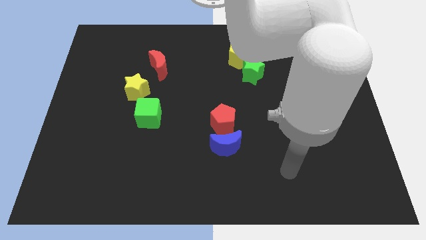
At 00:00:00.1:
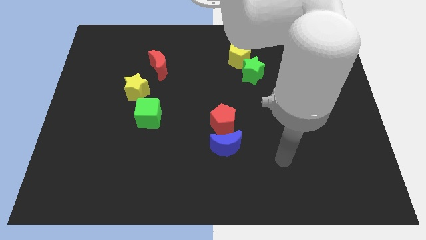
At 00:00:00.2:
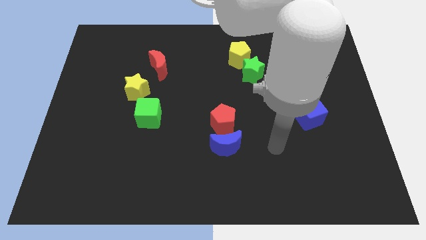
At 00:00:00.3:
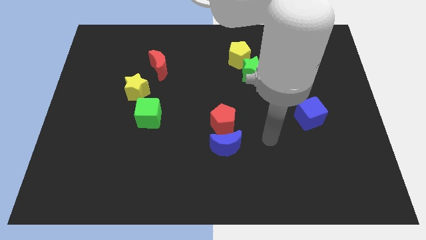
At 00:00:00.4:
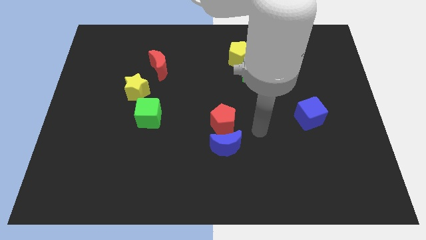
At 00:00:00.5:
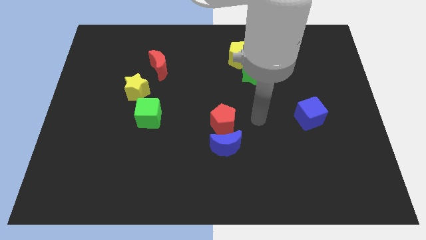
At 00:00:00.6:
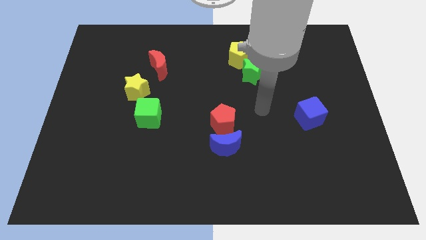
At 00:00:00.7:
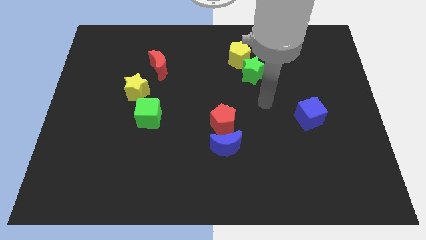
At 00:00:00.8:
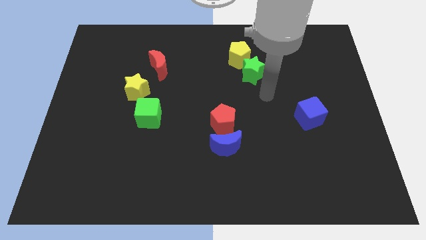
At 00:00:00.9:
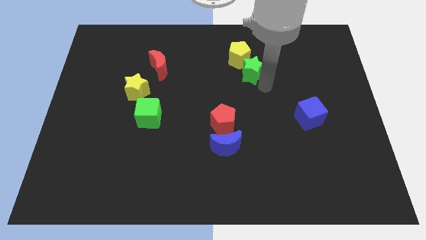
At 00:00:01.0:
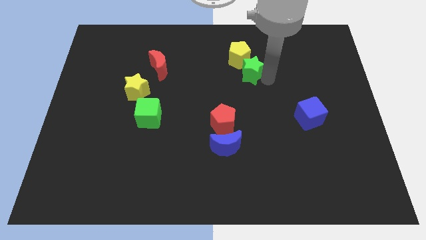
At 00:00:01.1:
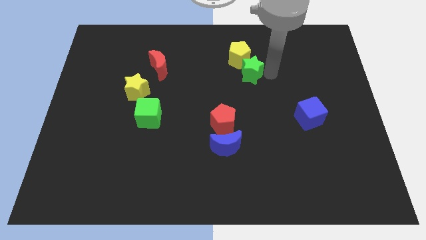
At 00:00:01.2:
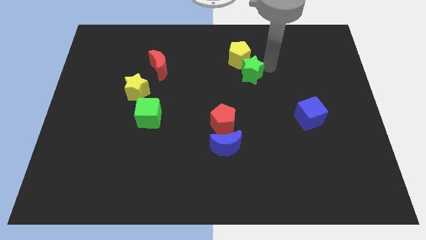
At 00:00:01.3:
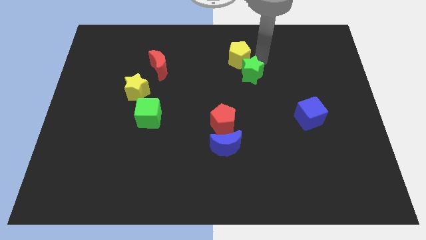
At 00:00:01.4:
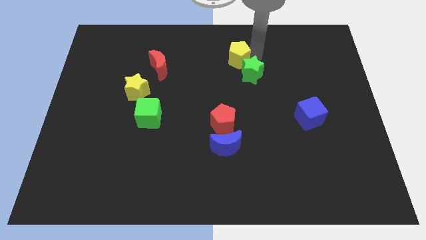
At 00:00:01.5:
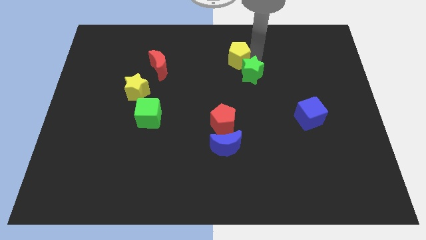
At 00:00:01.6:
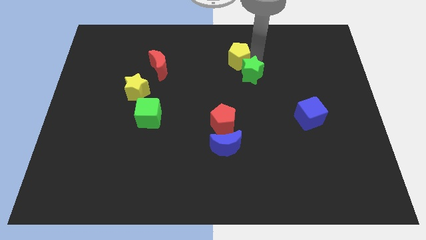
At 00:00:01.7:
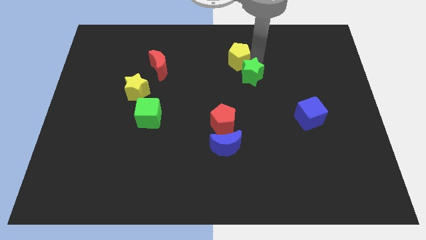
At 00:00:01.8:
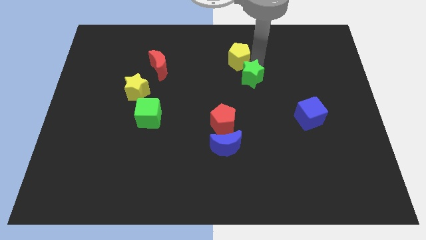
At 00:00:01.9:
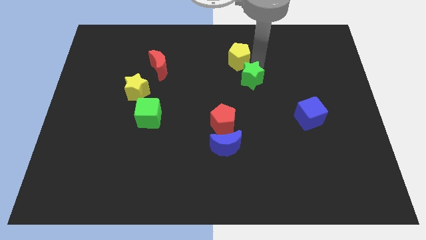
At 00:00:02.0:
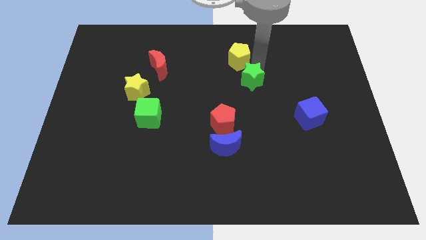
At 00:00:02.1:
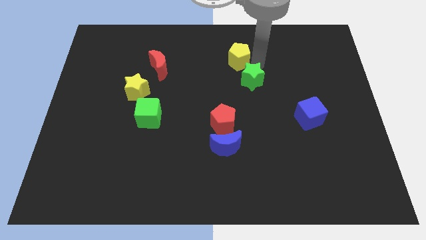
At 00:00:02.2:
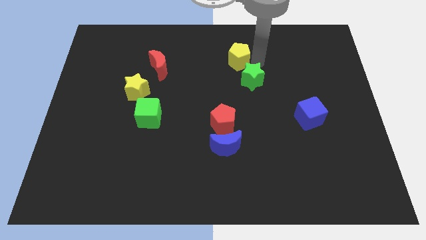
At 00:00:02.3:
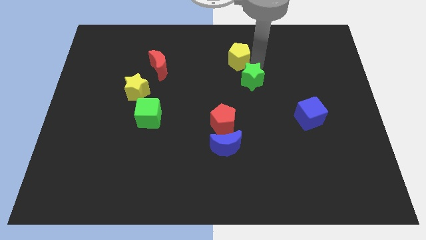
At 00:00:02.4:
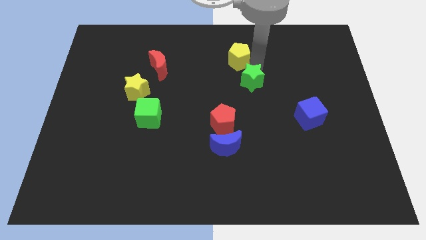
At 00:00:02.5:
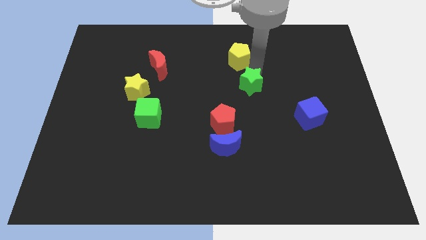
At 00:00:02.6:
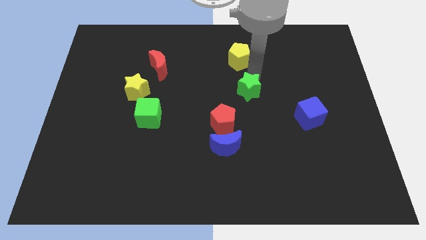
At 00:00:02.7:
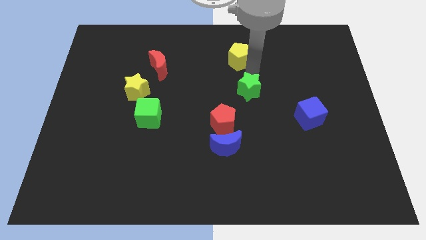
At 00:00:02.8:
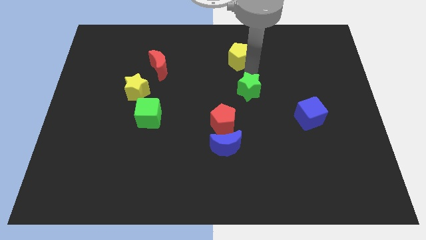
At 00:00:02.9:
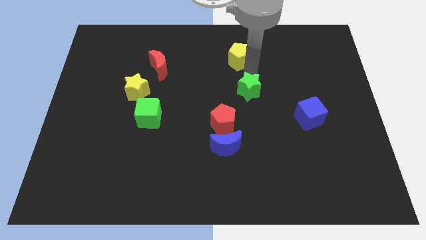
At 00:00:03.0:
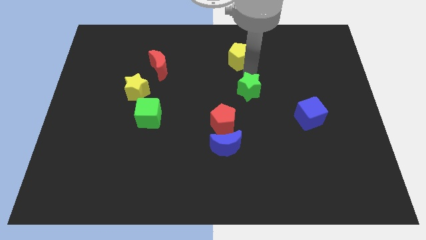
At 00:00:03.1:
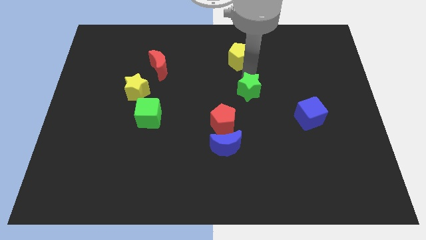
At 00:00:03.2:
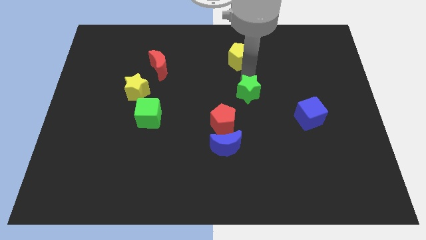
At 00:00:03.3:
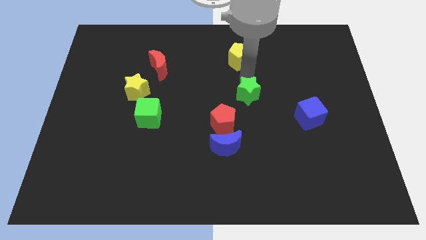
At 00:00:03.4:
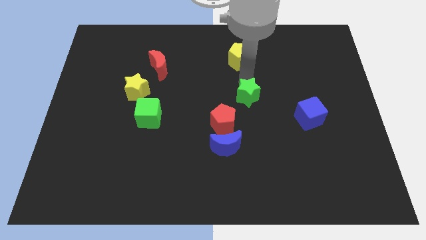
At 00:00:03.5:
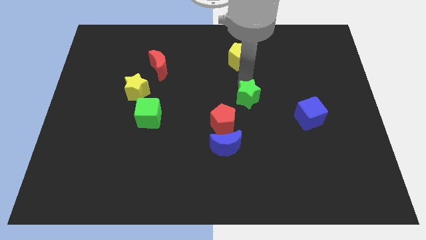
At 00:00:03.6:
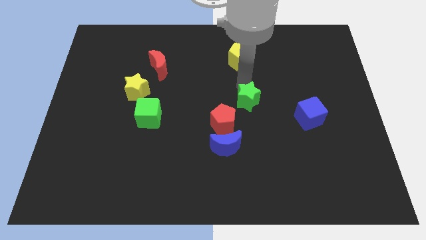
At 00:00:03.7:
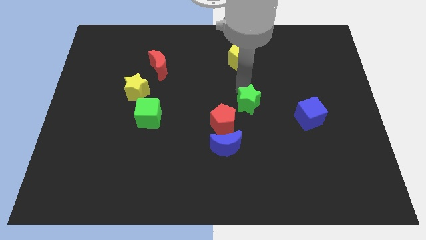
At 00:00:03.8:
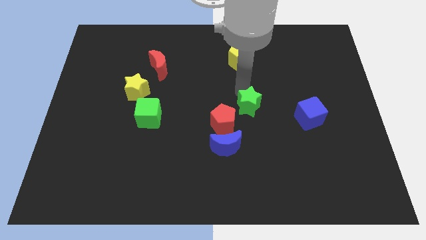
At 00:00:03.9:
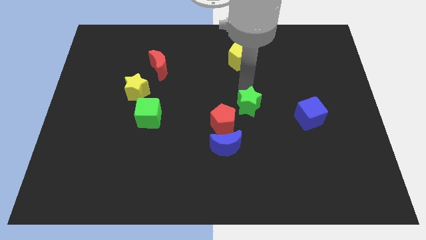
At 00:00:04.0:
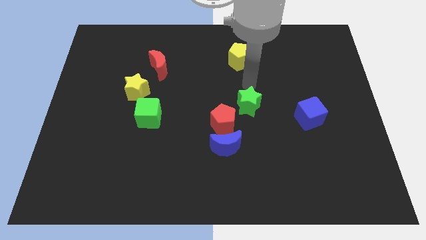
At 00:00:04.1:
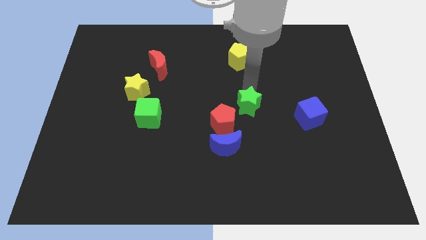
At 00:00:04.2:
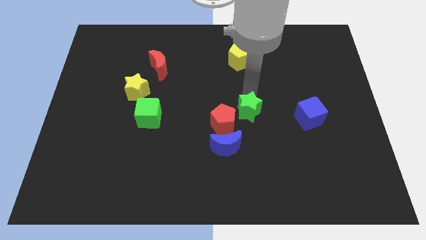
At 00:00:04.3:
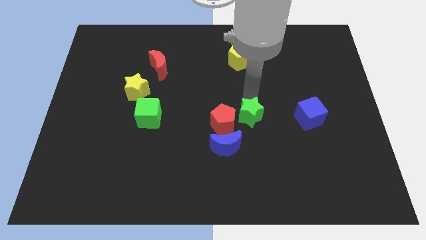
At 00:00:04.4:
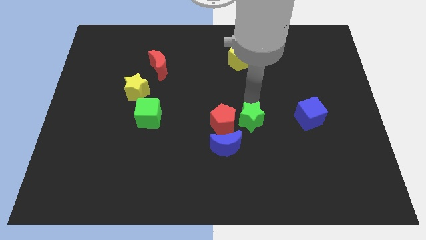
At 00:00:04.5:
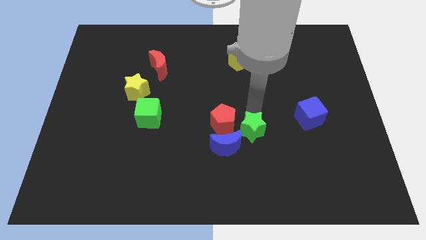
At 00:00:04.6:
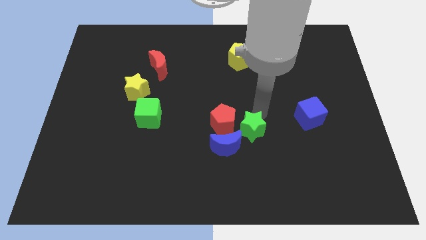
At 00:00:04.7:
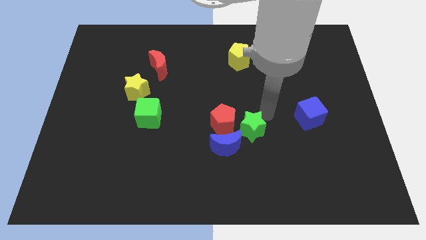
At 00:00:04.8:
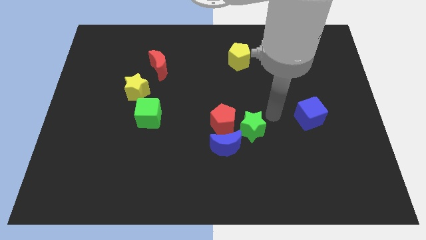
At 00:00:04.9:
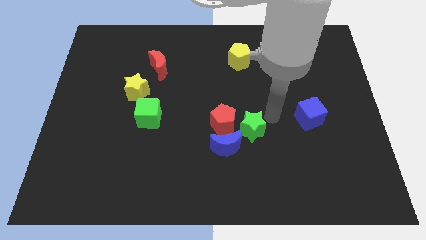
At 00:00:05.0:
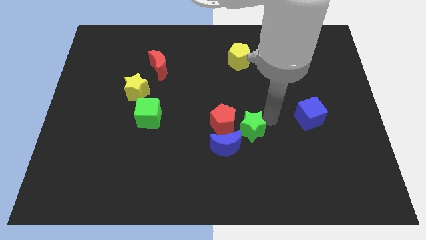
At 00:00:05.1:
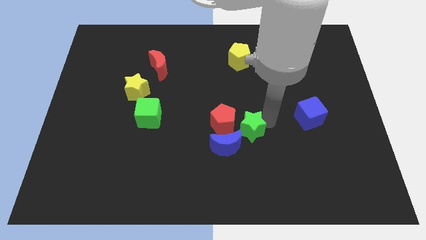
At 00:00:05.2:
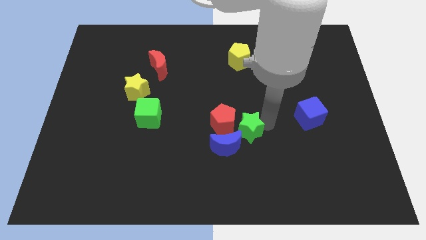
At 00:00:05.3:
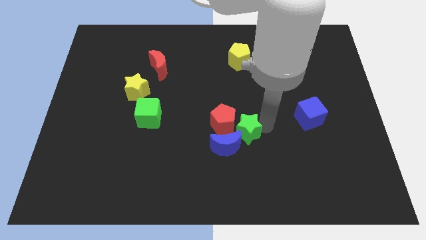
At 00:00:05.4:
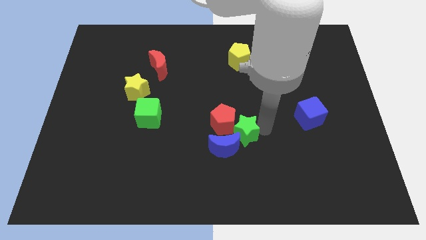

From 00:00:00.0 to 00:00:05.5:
push the green star close to the blue moon
